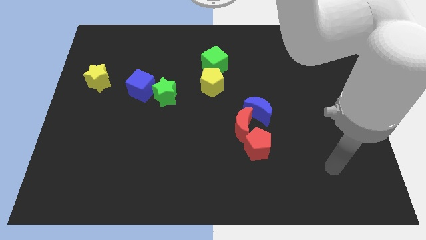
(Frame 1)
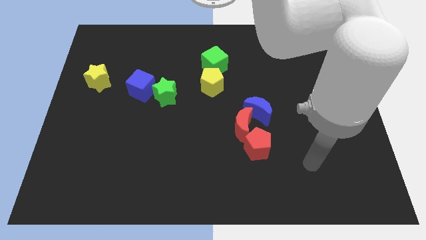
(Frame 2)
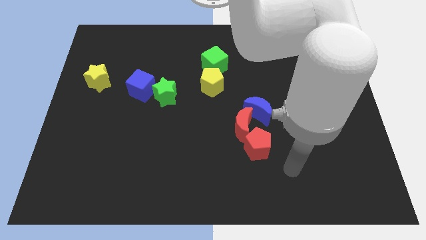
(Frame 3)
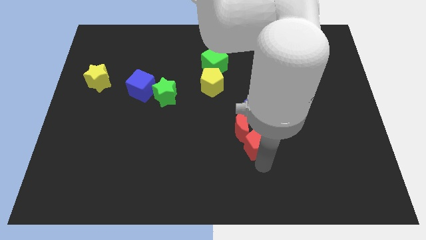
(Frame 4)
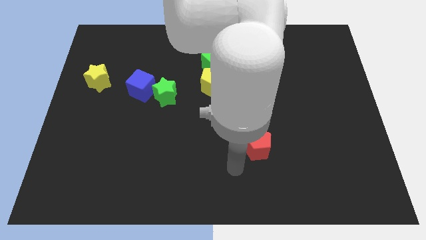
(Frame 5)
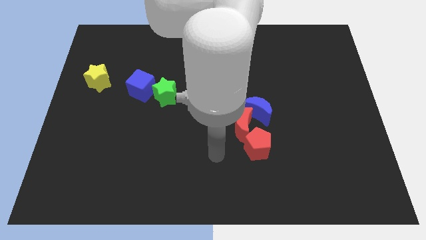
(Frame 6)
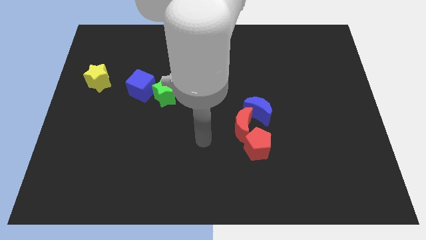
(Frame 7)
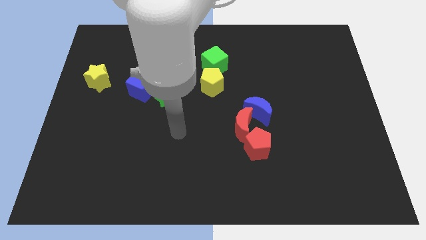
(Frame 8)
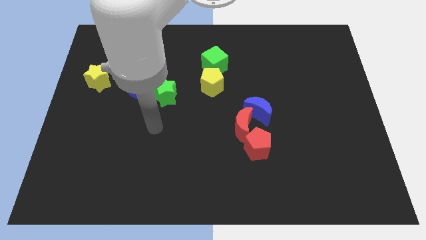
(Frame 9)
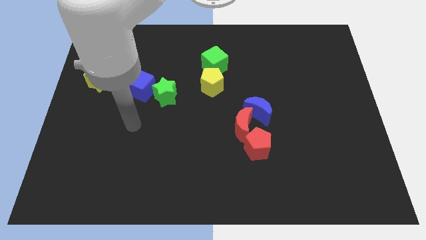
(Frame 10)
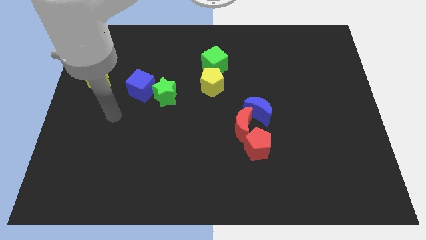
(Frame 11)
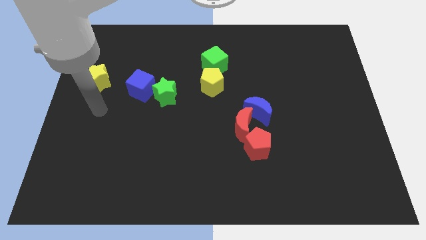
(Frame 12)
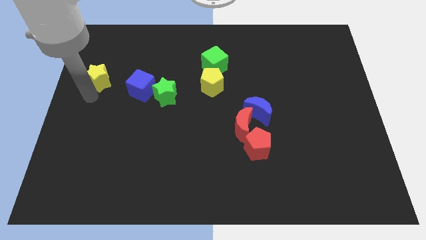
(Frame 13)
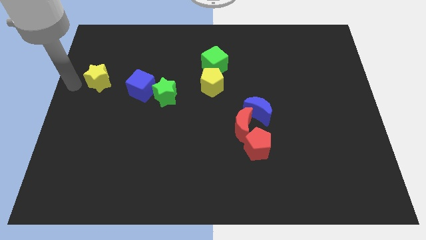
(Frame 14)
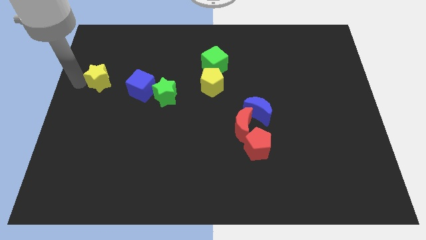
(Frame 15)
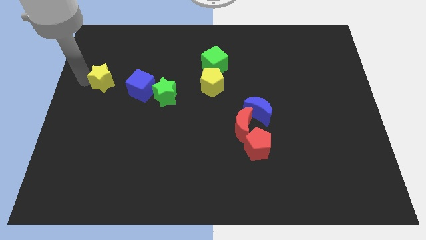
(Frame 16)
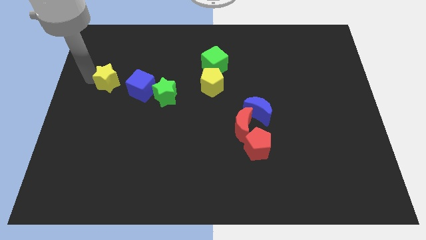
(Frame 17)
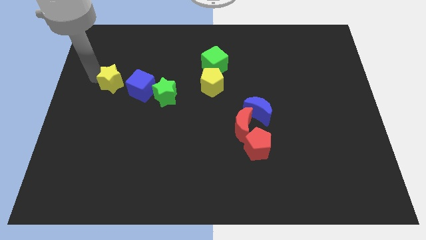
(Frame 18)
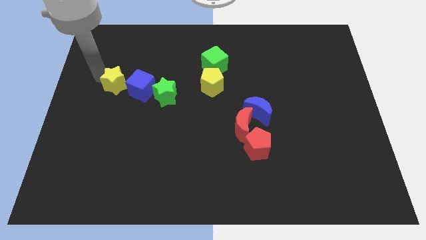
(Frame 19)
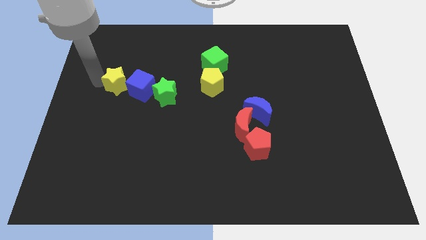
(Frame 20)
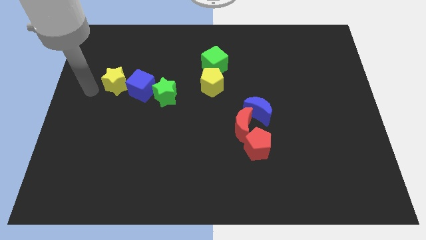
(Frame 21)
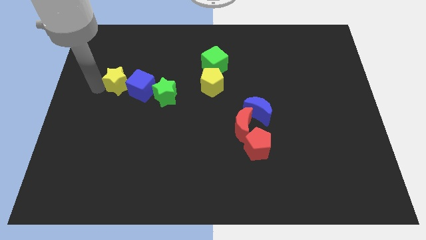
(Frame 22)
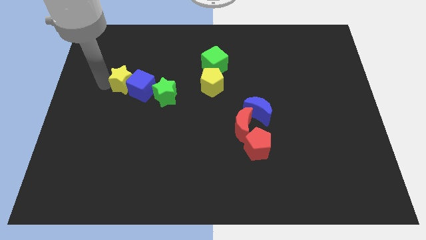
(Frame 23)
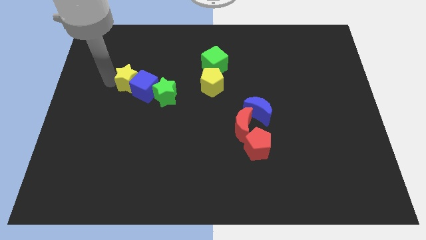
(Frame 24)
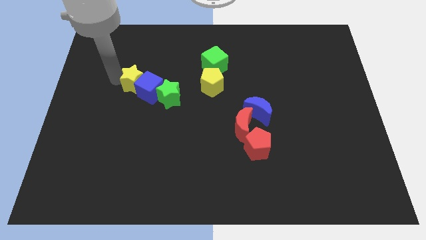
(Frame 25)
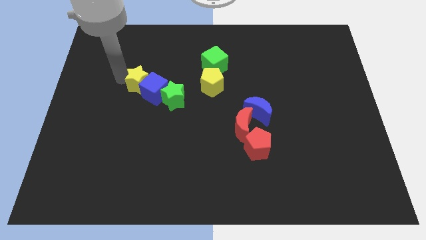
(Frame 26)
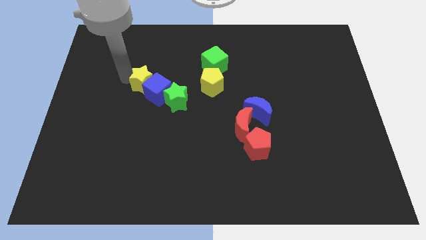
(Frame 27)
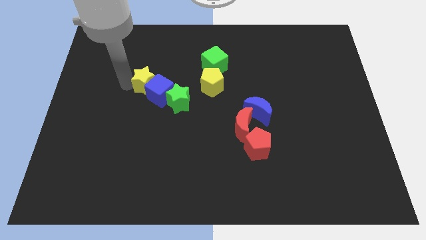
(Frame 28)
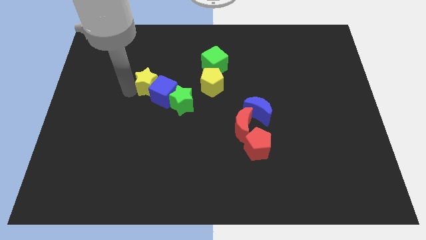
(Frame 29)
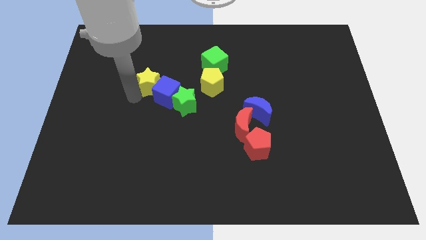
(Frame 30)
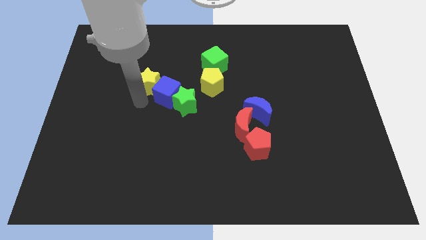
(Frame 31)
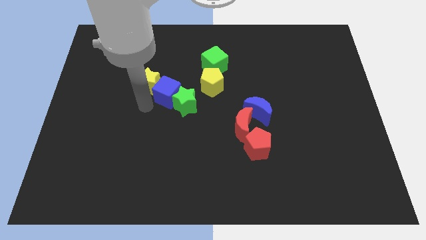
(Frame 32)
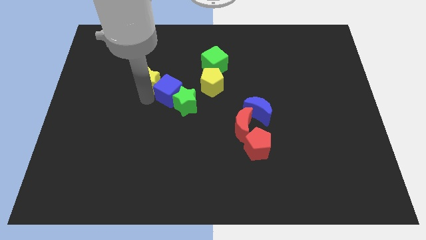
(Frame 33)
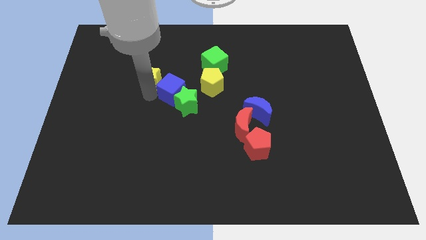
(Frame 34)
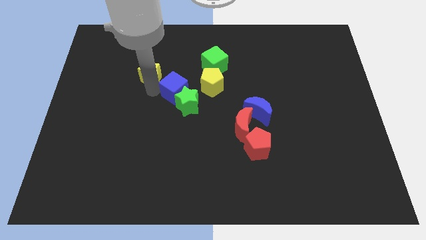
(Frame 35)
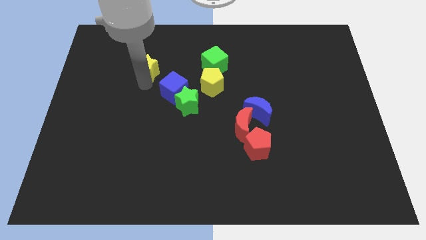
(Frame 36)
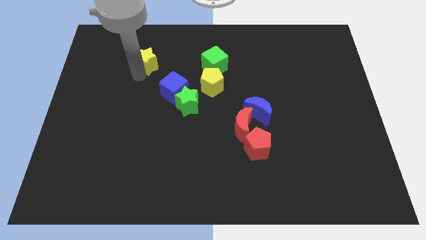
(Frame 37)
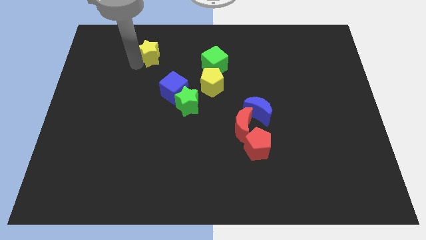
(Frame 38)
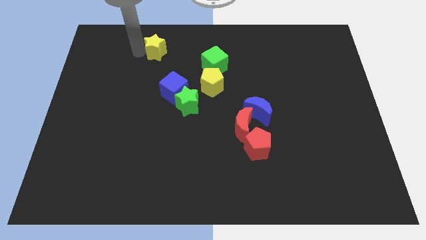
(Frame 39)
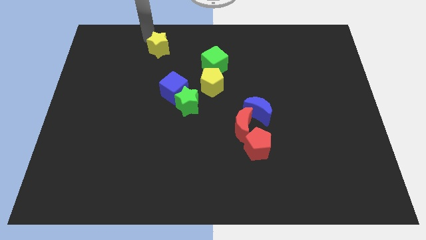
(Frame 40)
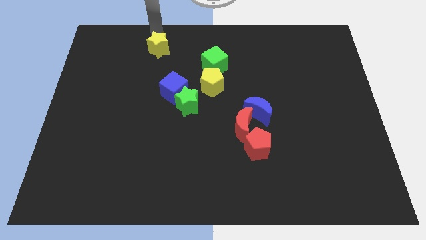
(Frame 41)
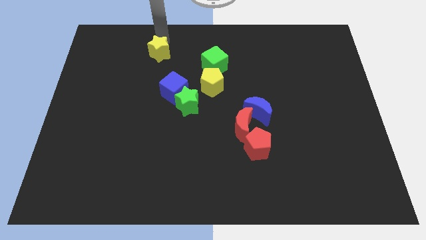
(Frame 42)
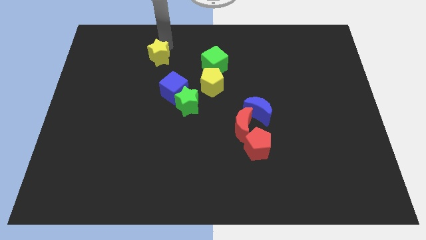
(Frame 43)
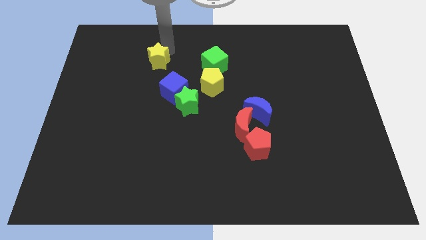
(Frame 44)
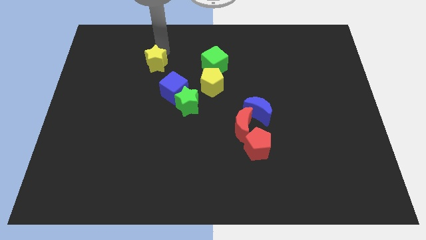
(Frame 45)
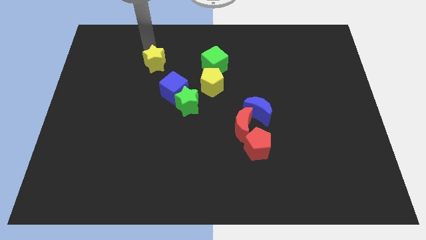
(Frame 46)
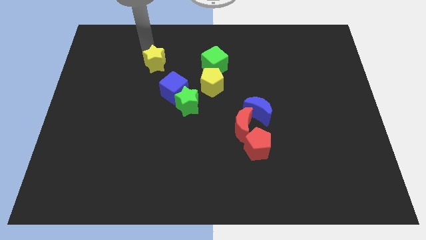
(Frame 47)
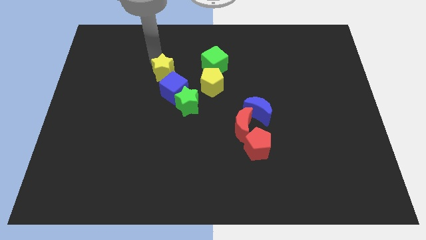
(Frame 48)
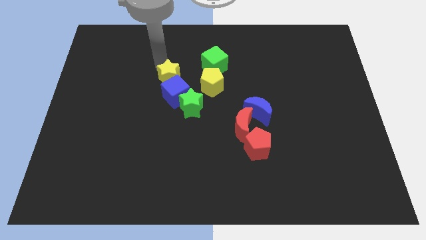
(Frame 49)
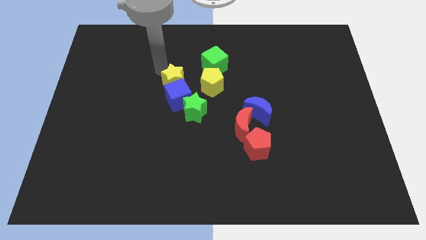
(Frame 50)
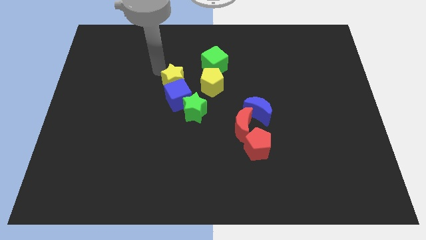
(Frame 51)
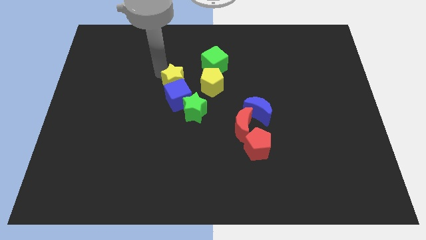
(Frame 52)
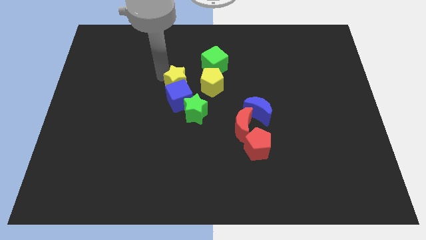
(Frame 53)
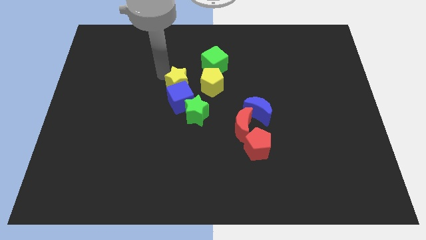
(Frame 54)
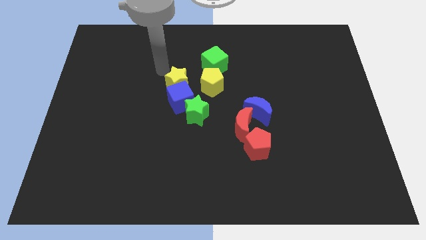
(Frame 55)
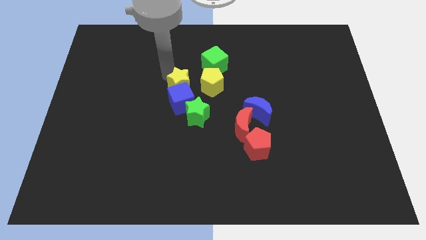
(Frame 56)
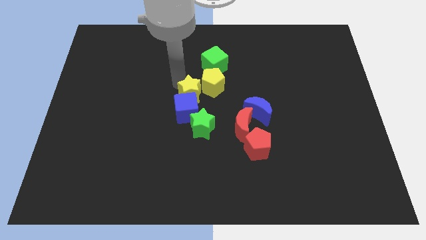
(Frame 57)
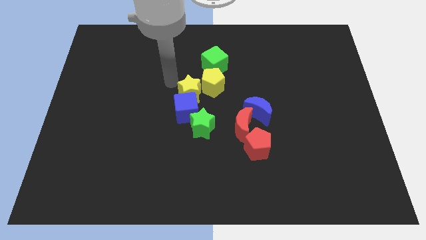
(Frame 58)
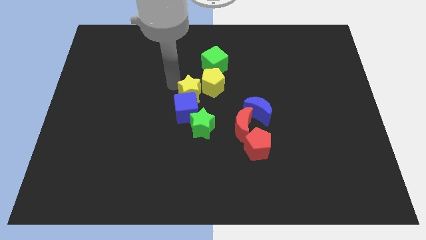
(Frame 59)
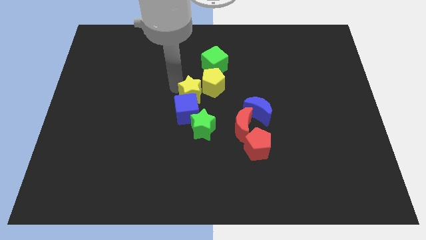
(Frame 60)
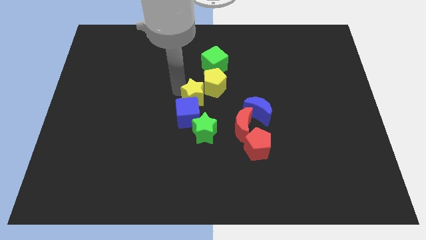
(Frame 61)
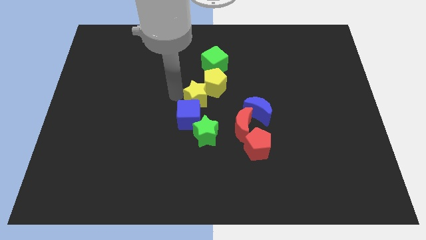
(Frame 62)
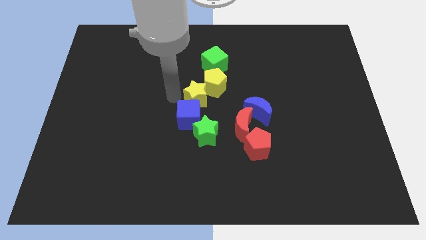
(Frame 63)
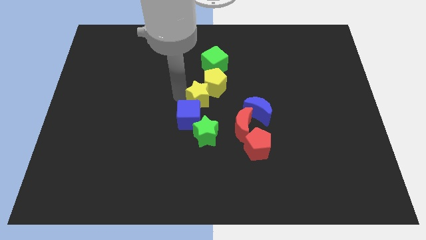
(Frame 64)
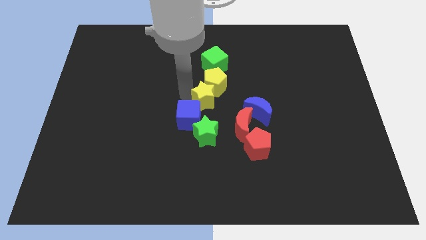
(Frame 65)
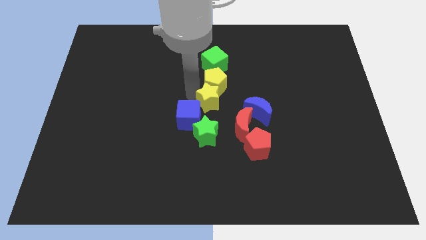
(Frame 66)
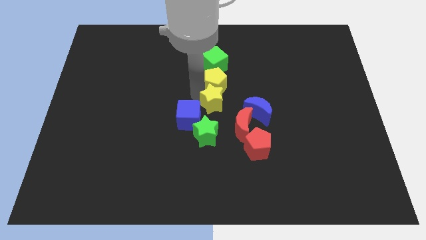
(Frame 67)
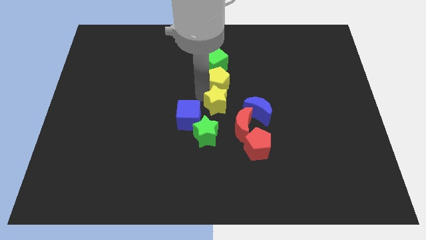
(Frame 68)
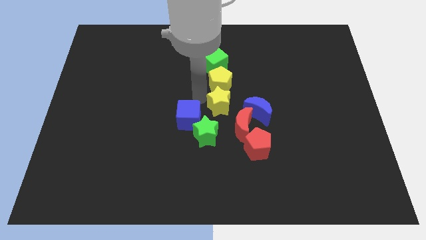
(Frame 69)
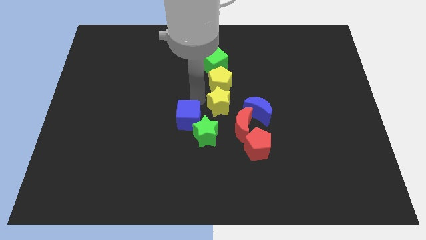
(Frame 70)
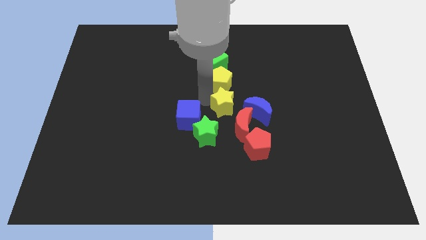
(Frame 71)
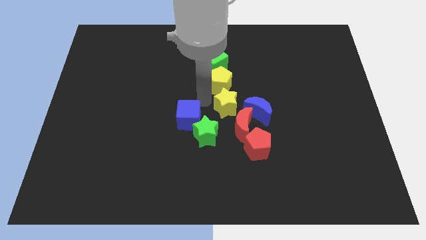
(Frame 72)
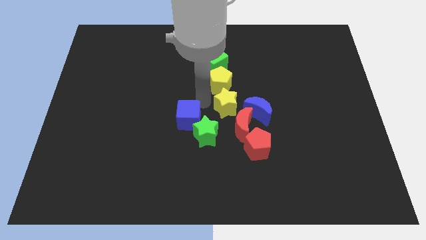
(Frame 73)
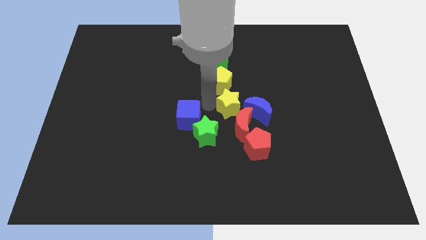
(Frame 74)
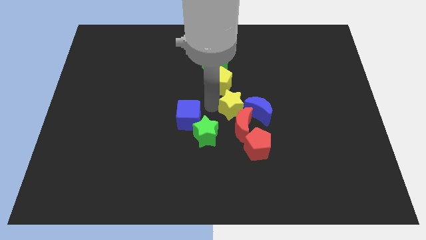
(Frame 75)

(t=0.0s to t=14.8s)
slide the yellow star next to the blue moon
